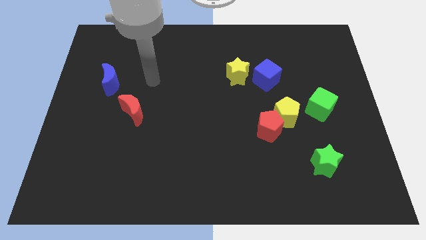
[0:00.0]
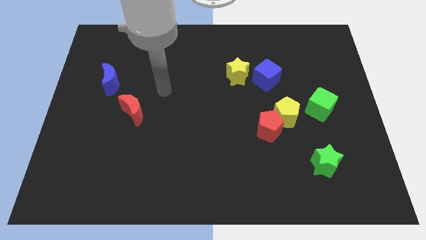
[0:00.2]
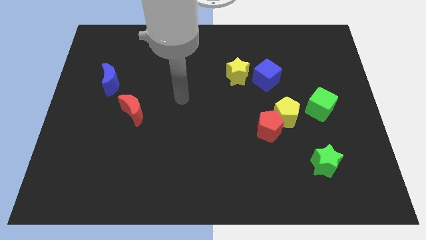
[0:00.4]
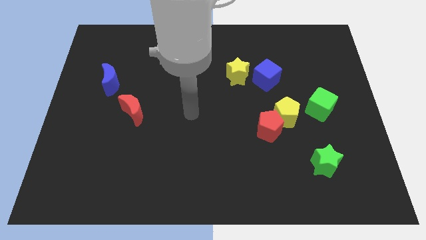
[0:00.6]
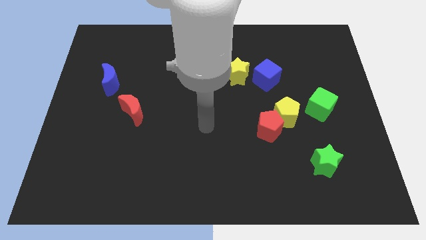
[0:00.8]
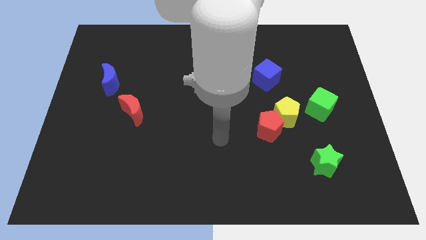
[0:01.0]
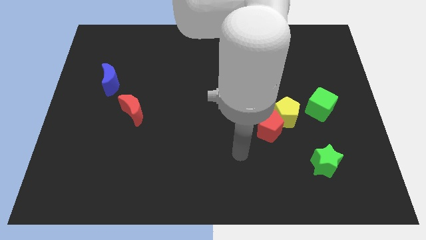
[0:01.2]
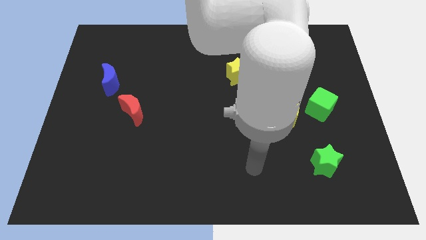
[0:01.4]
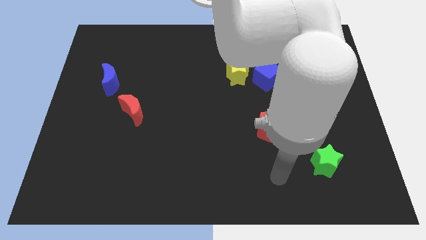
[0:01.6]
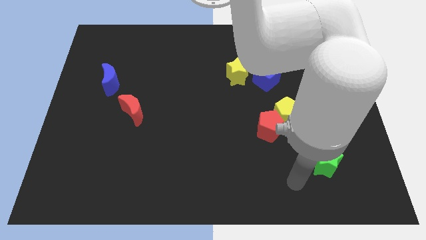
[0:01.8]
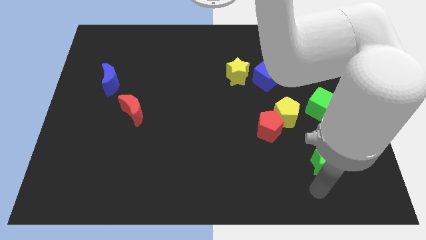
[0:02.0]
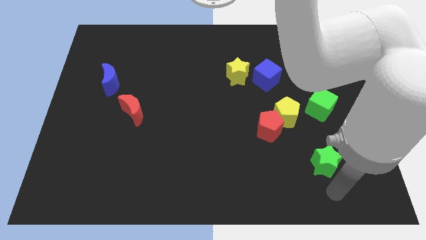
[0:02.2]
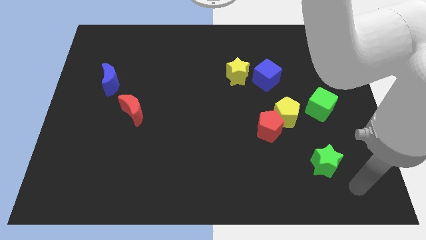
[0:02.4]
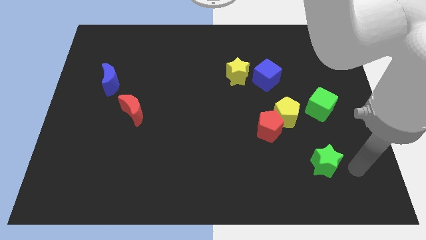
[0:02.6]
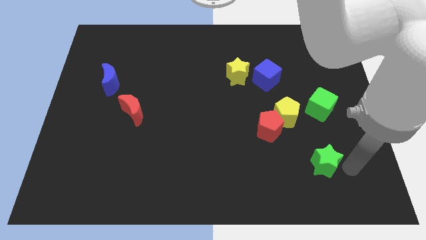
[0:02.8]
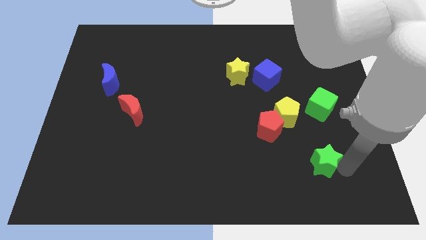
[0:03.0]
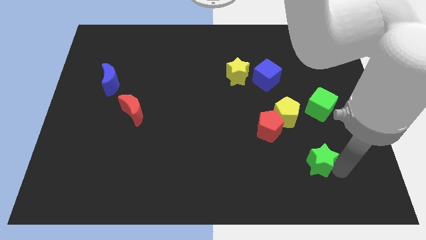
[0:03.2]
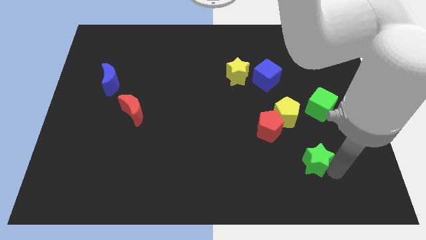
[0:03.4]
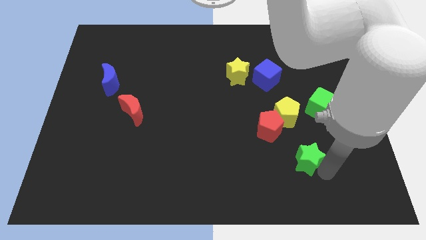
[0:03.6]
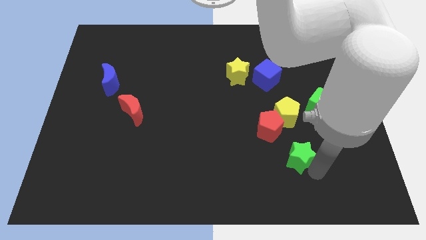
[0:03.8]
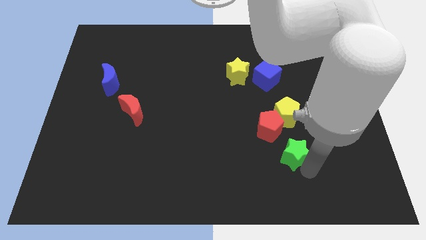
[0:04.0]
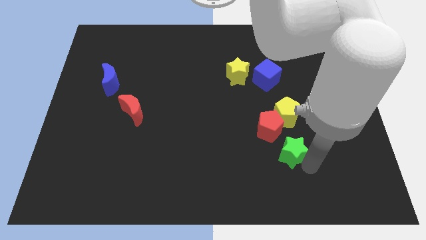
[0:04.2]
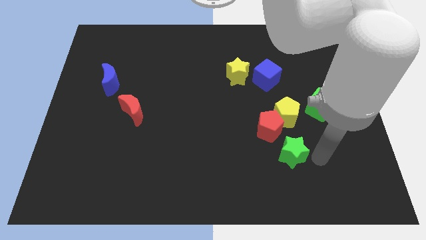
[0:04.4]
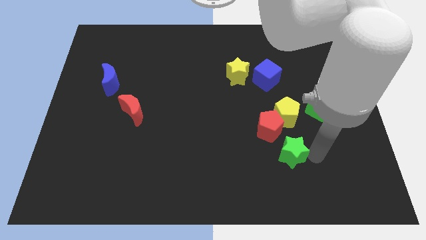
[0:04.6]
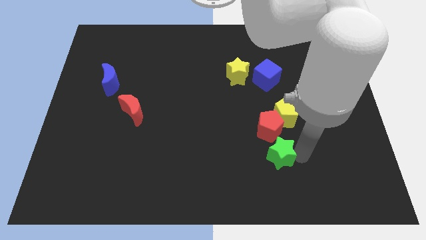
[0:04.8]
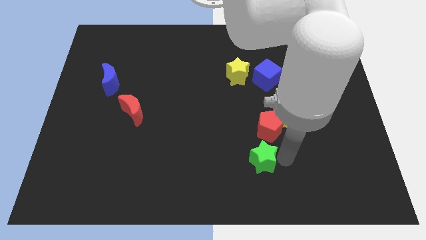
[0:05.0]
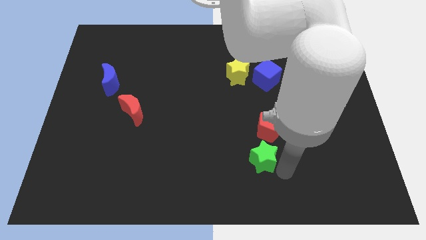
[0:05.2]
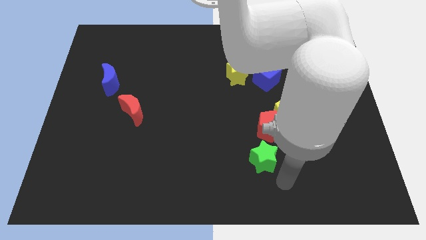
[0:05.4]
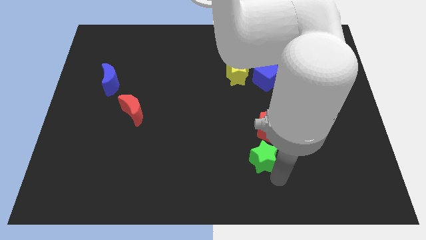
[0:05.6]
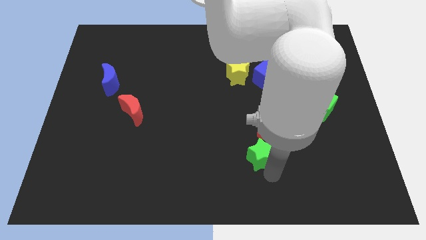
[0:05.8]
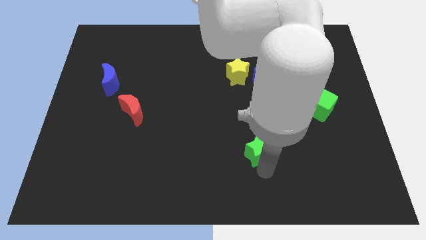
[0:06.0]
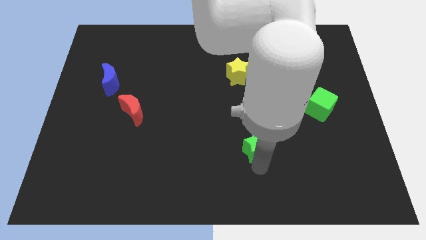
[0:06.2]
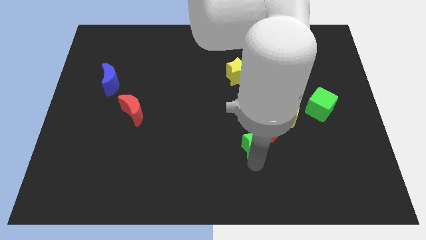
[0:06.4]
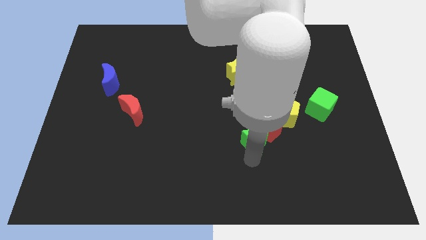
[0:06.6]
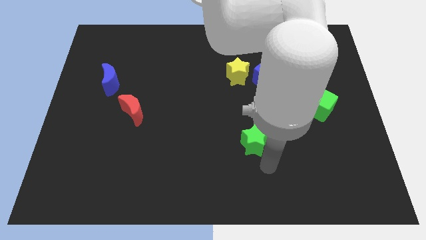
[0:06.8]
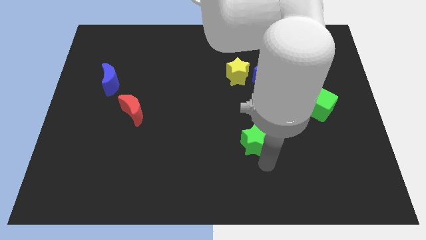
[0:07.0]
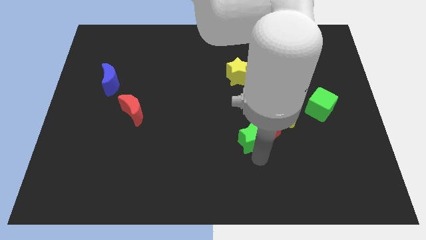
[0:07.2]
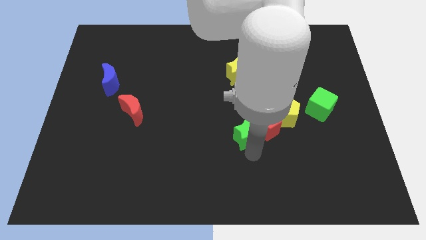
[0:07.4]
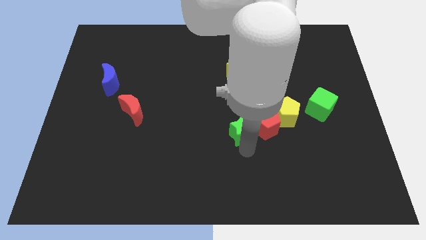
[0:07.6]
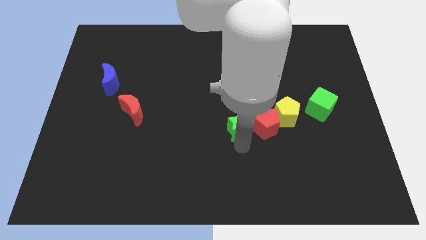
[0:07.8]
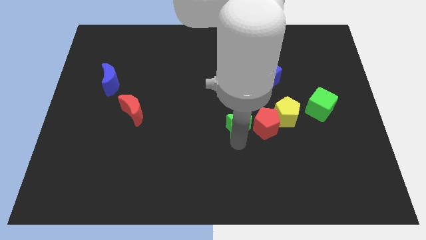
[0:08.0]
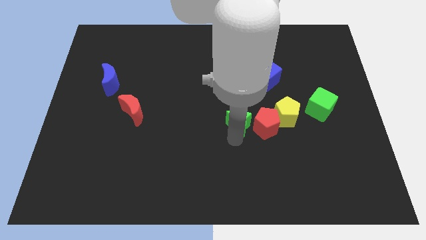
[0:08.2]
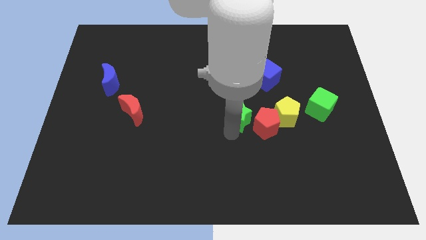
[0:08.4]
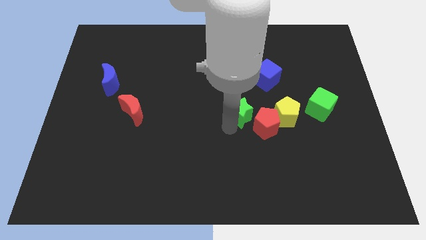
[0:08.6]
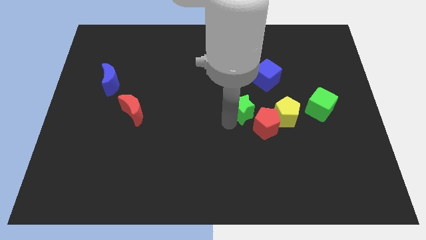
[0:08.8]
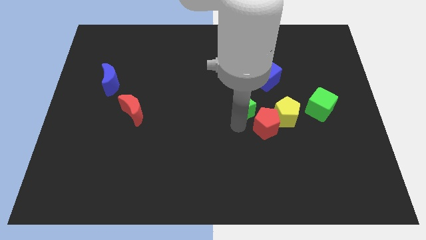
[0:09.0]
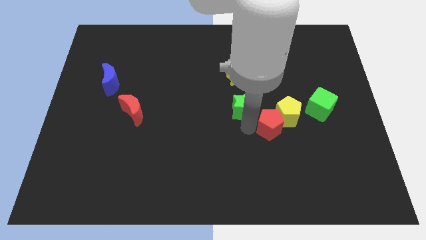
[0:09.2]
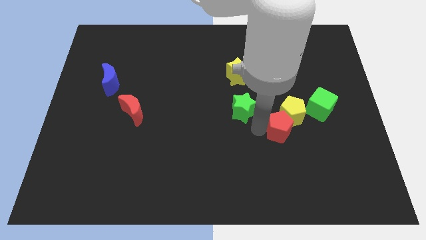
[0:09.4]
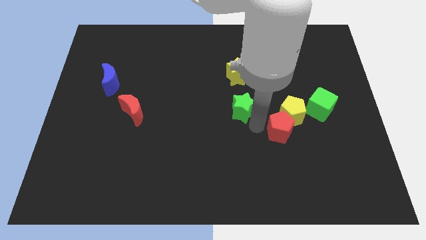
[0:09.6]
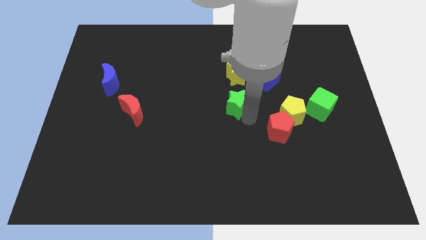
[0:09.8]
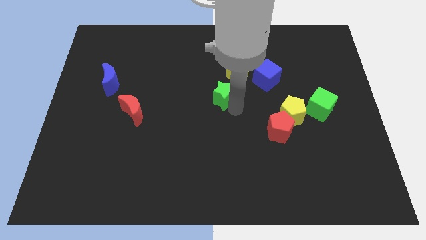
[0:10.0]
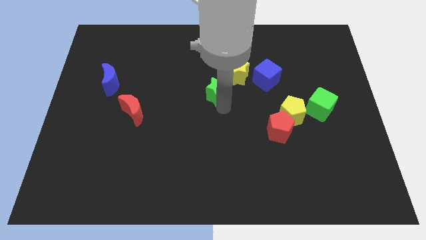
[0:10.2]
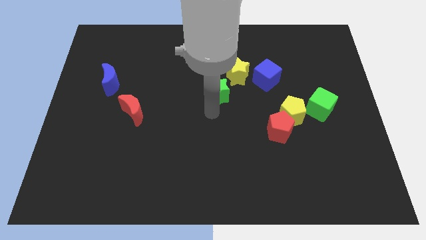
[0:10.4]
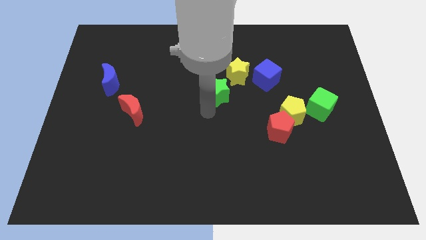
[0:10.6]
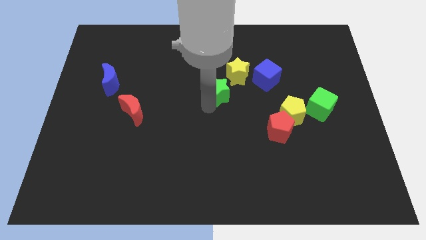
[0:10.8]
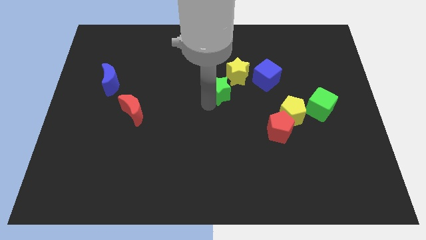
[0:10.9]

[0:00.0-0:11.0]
slide the green star to the left side of the blue cube
